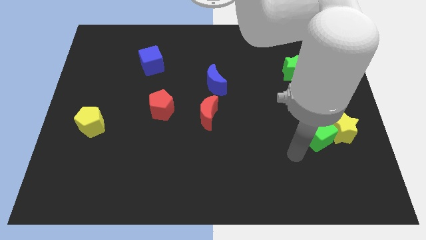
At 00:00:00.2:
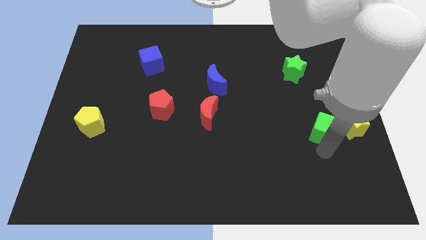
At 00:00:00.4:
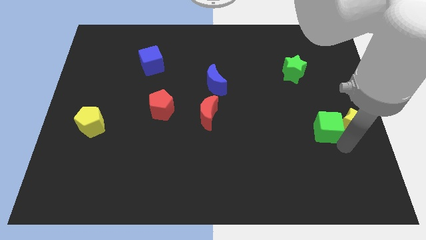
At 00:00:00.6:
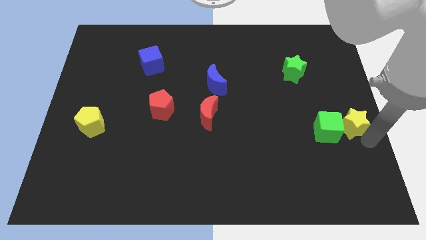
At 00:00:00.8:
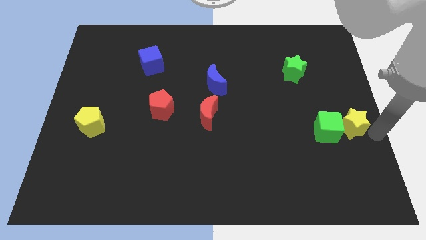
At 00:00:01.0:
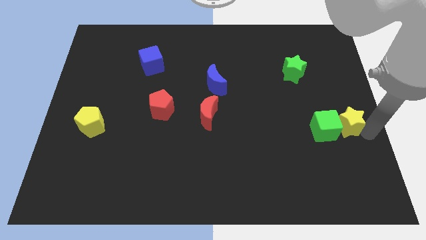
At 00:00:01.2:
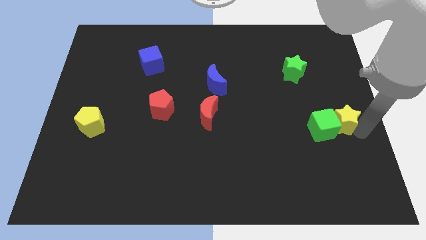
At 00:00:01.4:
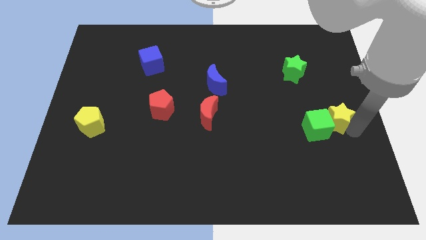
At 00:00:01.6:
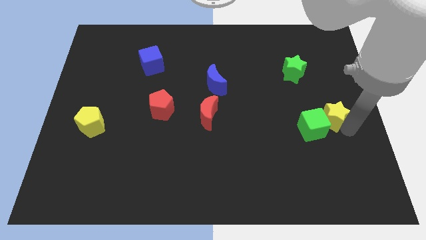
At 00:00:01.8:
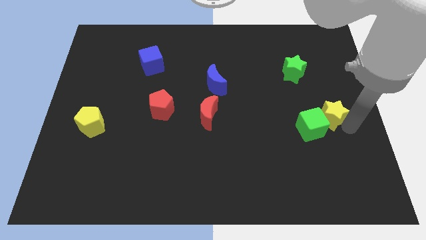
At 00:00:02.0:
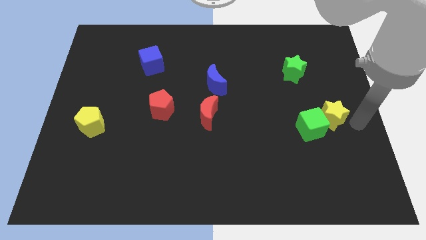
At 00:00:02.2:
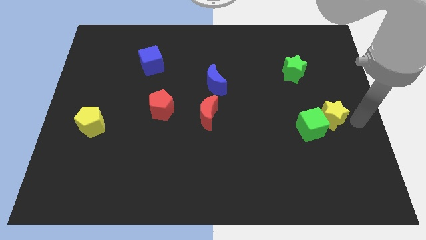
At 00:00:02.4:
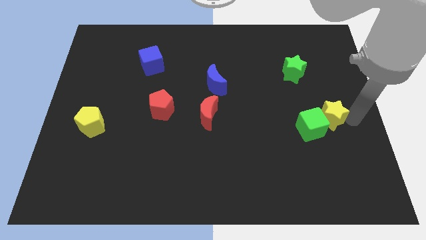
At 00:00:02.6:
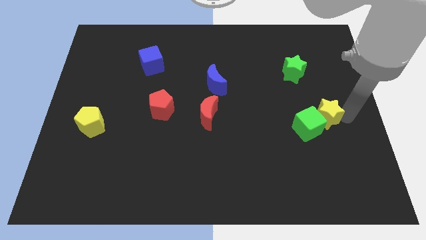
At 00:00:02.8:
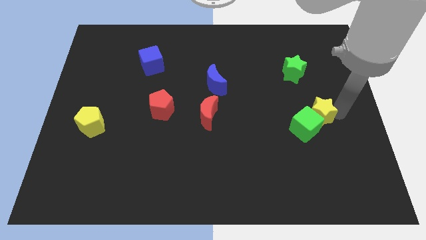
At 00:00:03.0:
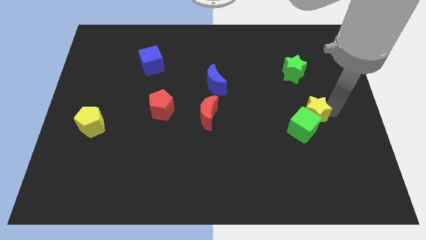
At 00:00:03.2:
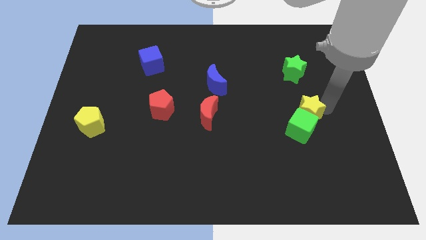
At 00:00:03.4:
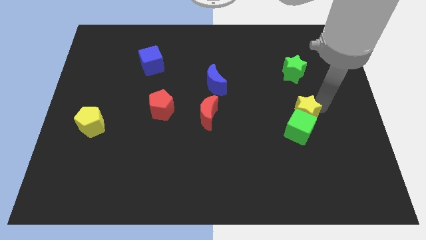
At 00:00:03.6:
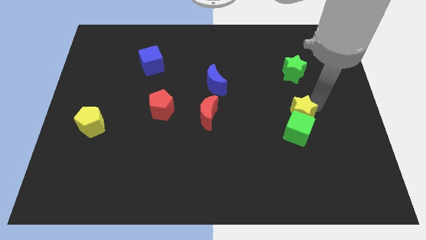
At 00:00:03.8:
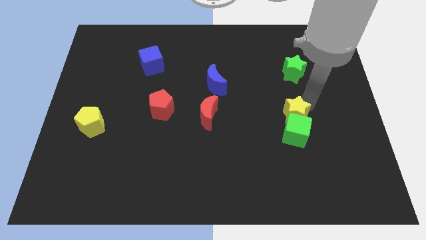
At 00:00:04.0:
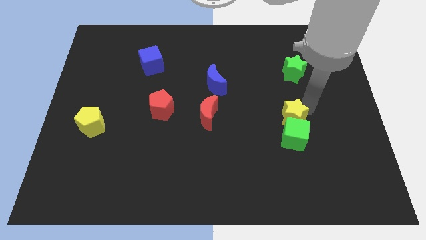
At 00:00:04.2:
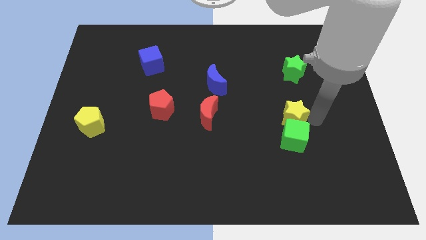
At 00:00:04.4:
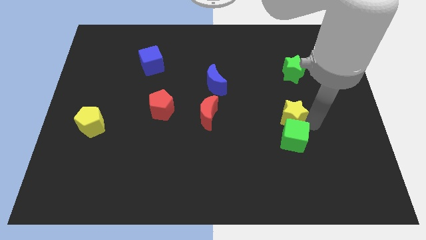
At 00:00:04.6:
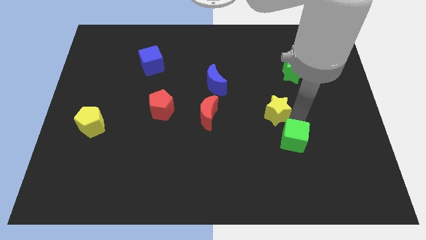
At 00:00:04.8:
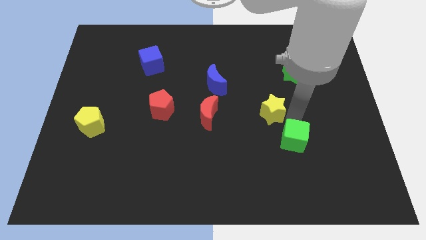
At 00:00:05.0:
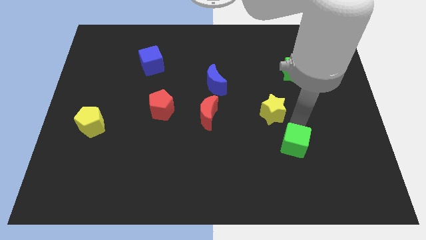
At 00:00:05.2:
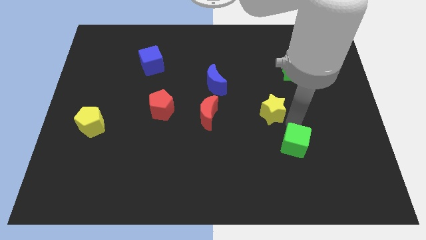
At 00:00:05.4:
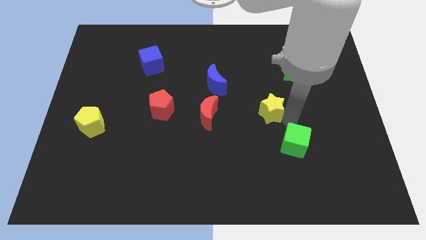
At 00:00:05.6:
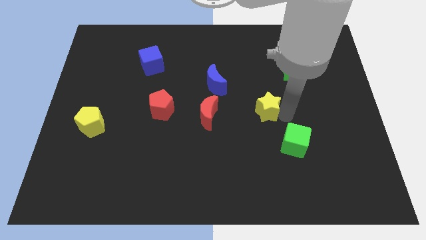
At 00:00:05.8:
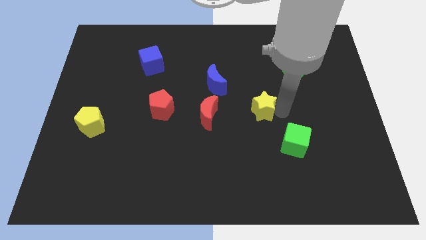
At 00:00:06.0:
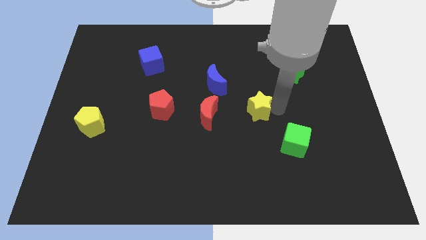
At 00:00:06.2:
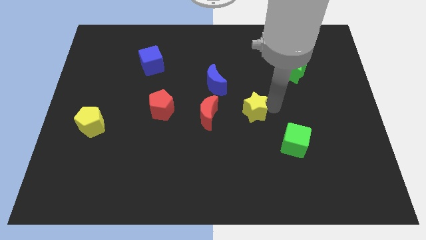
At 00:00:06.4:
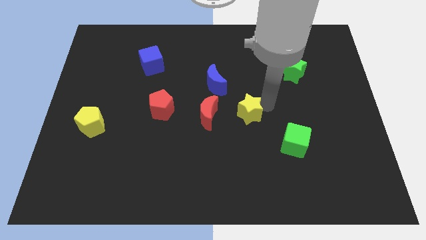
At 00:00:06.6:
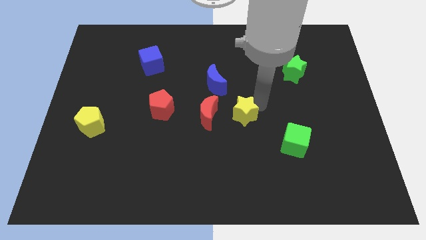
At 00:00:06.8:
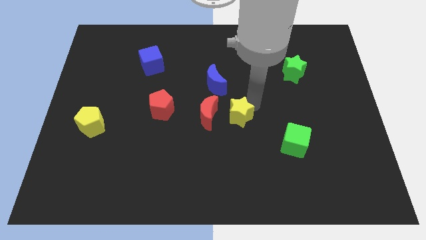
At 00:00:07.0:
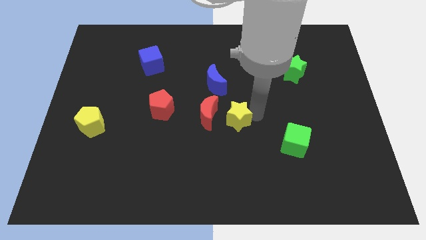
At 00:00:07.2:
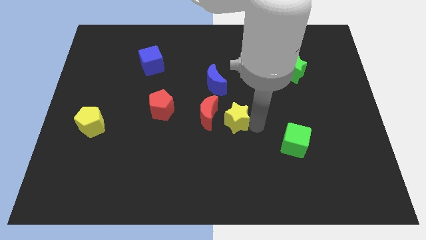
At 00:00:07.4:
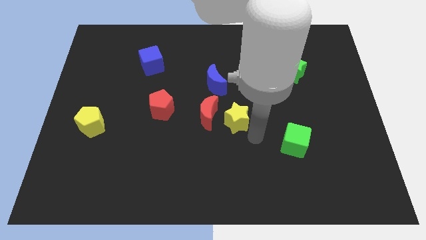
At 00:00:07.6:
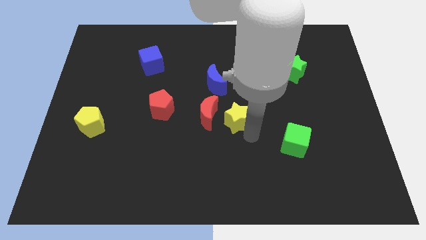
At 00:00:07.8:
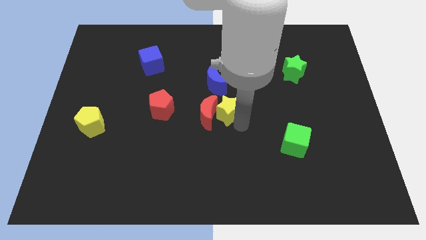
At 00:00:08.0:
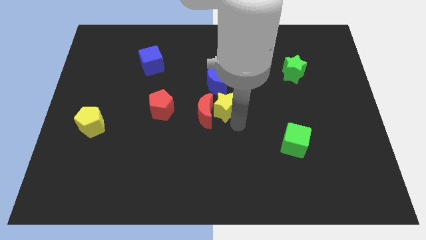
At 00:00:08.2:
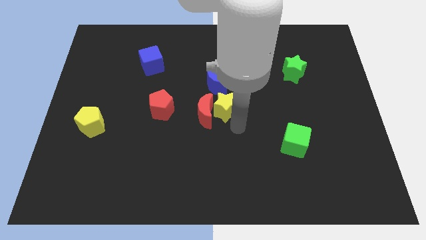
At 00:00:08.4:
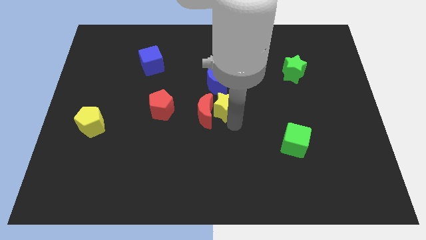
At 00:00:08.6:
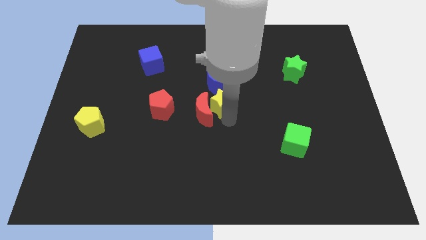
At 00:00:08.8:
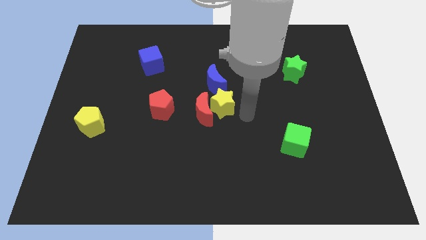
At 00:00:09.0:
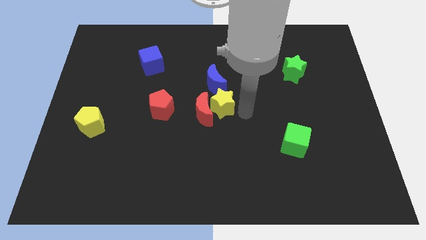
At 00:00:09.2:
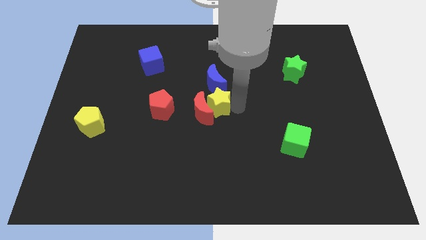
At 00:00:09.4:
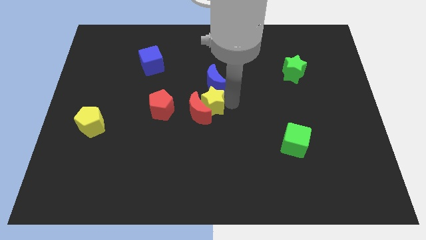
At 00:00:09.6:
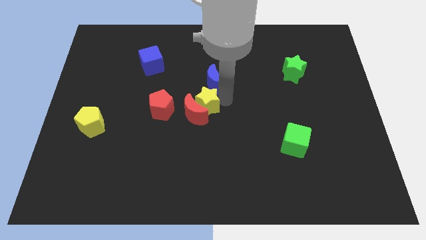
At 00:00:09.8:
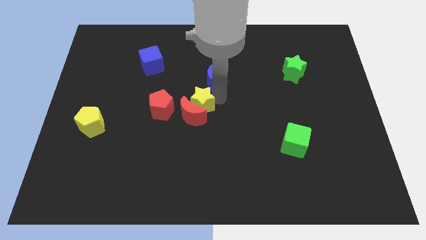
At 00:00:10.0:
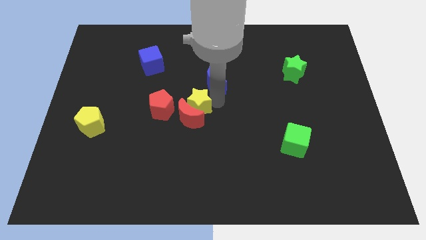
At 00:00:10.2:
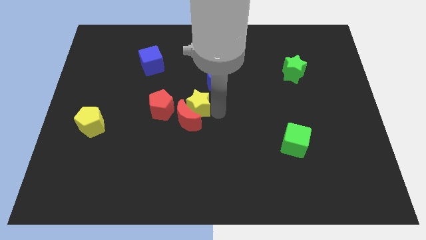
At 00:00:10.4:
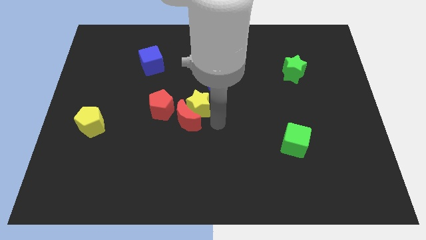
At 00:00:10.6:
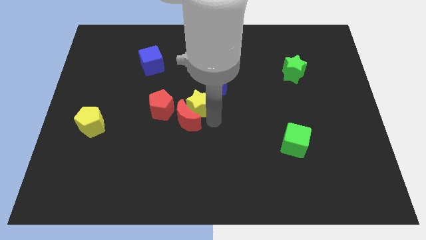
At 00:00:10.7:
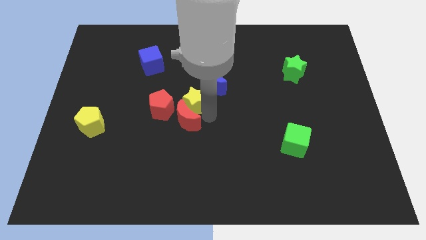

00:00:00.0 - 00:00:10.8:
slide the yellow star to the top right side of the red pentagon

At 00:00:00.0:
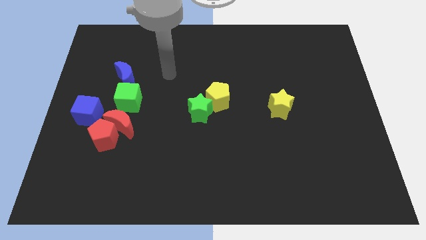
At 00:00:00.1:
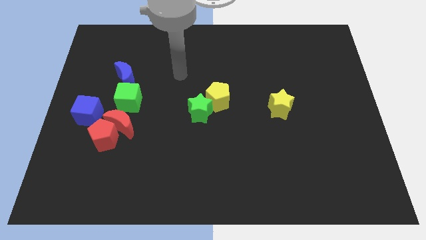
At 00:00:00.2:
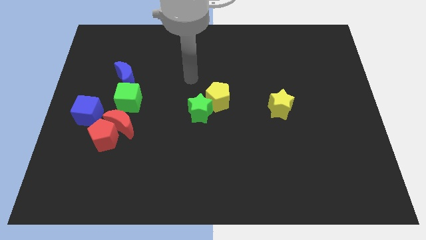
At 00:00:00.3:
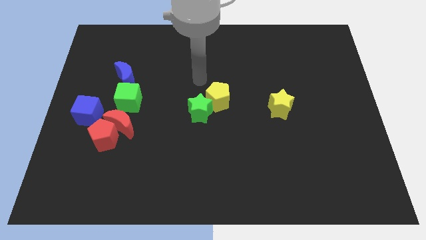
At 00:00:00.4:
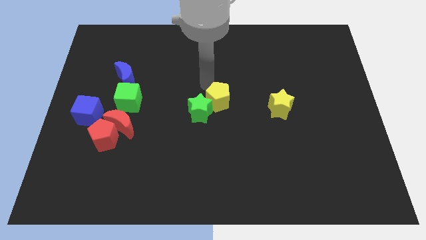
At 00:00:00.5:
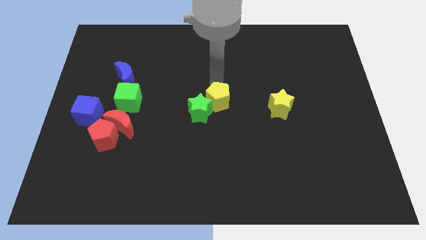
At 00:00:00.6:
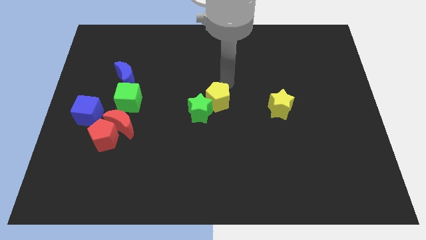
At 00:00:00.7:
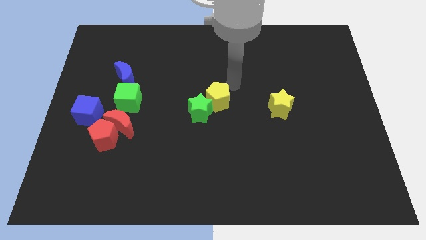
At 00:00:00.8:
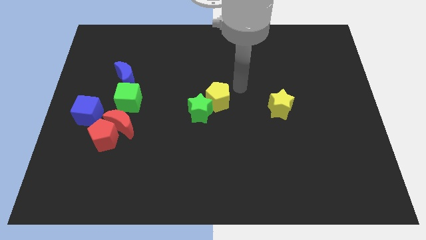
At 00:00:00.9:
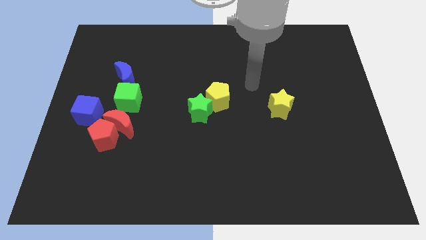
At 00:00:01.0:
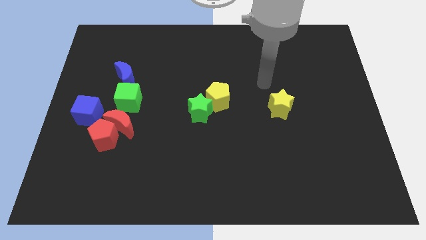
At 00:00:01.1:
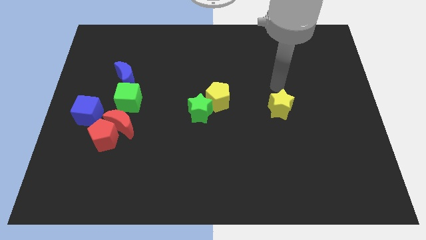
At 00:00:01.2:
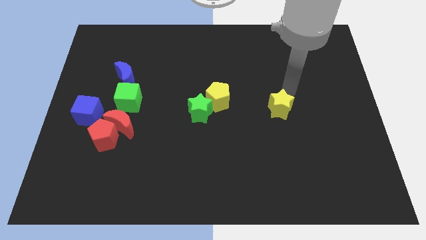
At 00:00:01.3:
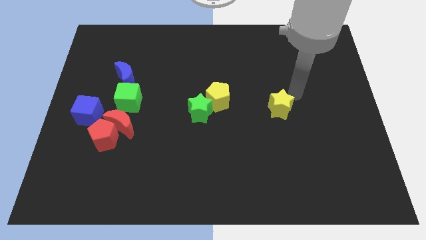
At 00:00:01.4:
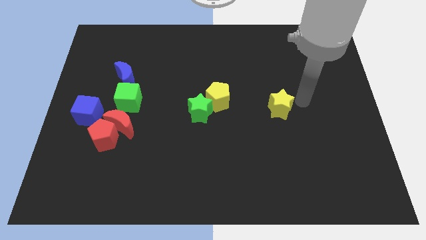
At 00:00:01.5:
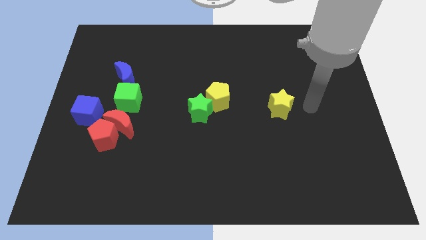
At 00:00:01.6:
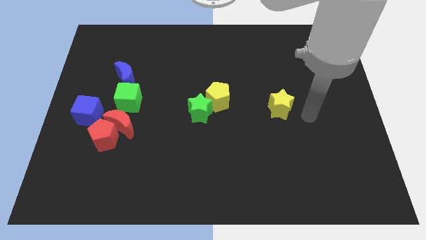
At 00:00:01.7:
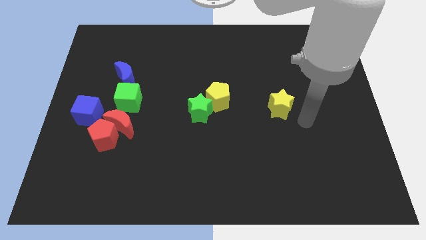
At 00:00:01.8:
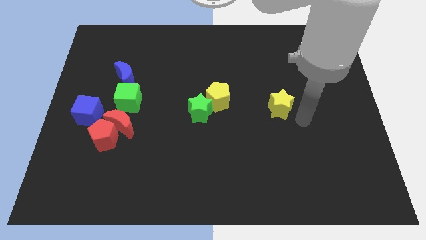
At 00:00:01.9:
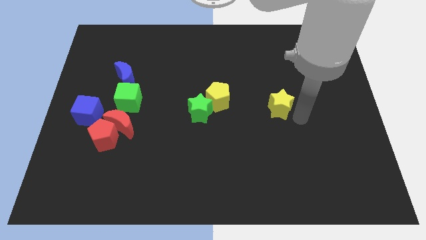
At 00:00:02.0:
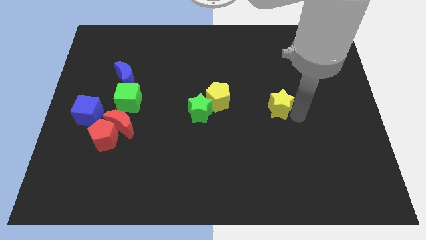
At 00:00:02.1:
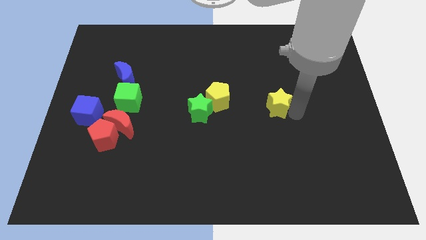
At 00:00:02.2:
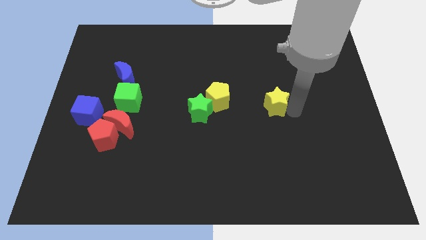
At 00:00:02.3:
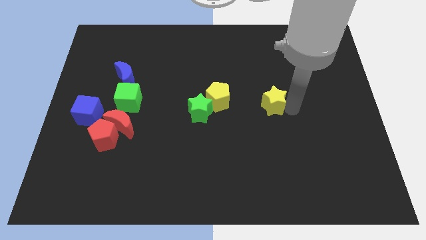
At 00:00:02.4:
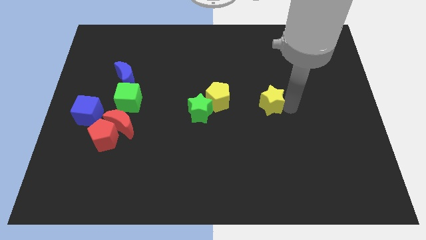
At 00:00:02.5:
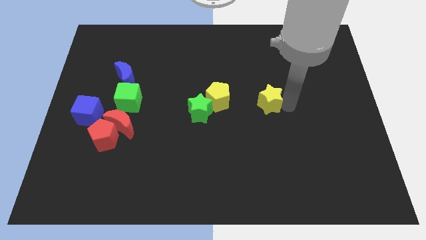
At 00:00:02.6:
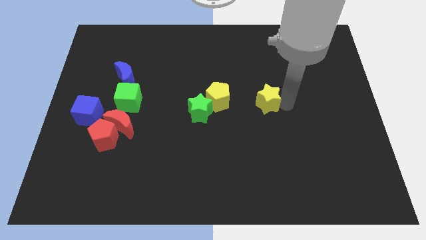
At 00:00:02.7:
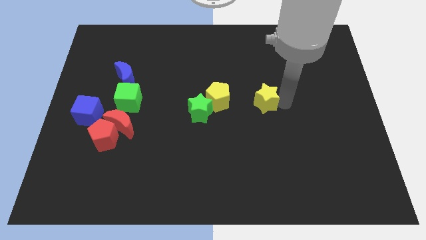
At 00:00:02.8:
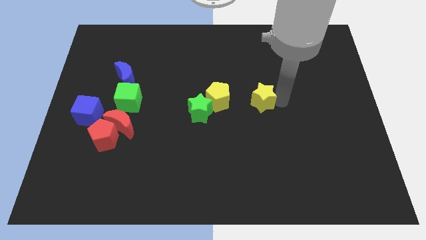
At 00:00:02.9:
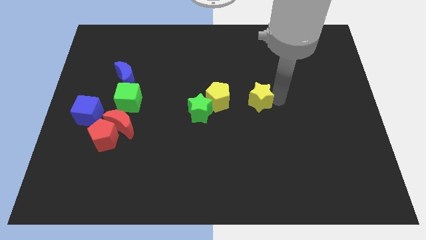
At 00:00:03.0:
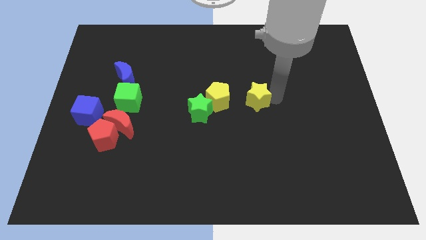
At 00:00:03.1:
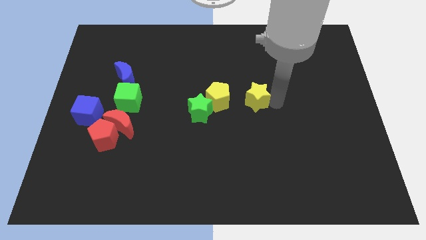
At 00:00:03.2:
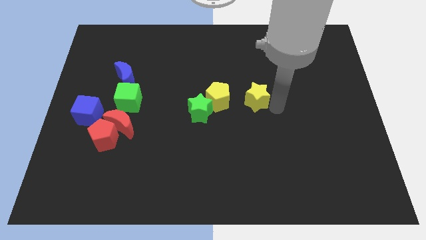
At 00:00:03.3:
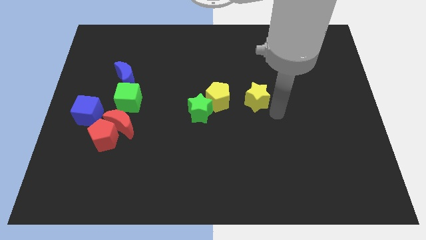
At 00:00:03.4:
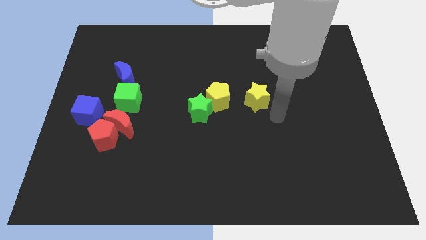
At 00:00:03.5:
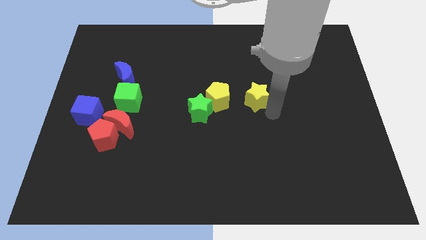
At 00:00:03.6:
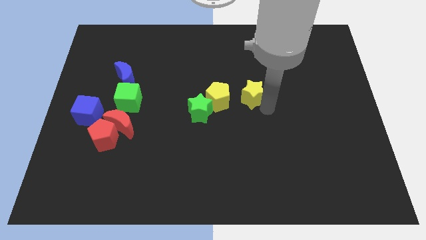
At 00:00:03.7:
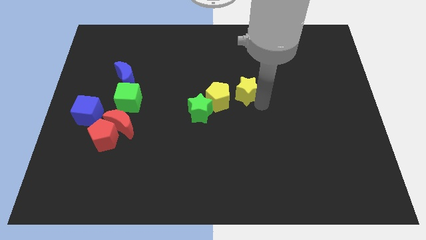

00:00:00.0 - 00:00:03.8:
move the yellow star to the top right side of the yellow pentagon
